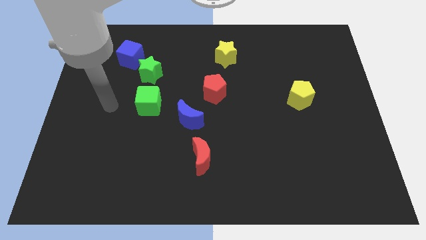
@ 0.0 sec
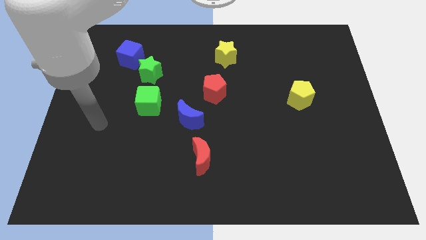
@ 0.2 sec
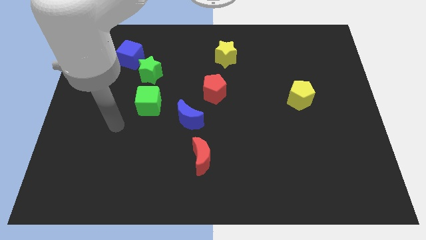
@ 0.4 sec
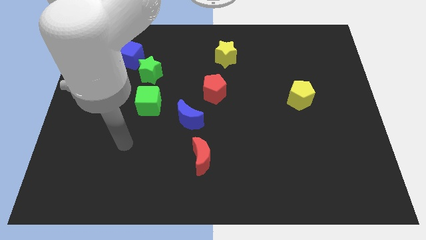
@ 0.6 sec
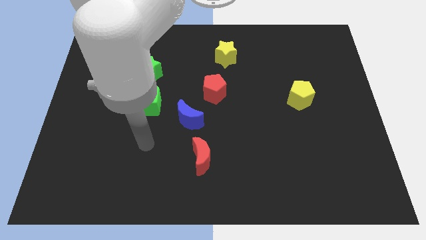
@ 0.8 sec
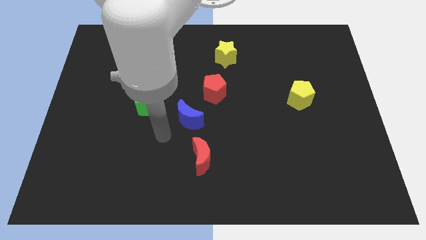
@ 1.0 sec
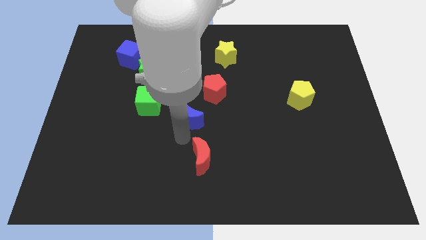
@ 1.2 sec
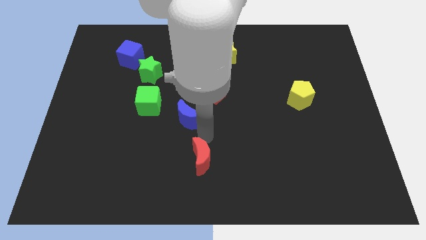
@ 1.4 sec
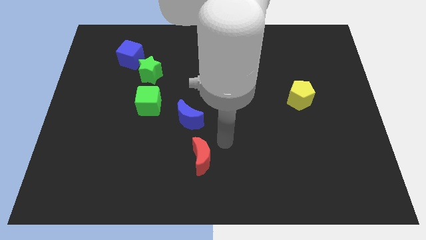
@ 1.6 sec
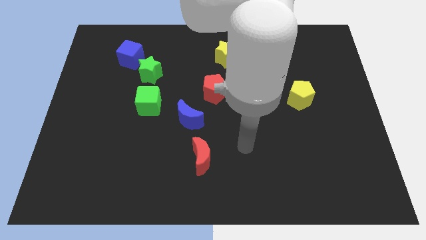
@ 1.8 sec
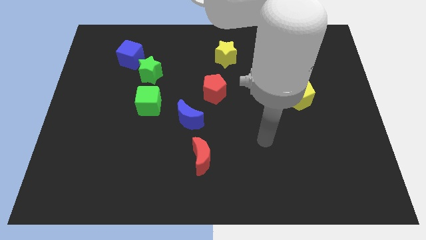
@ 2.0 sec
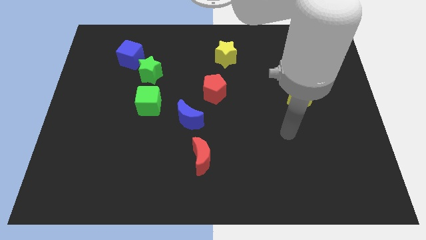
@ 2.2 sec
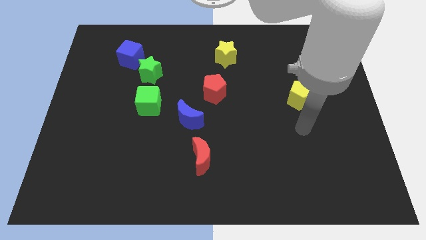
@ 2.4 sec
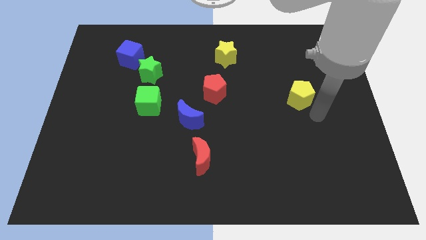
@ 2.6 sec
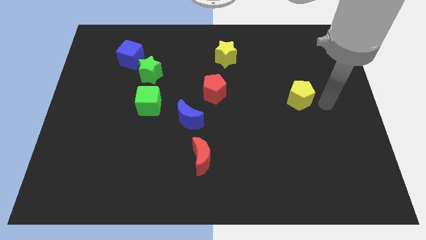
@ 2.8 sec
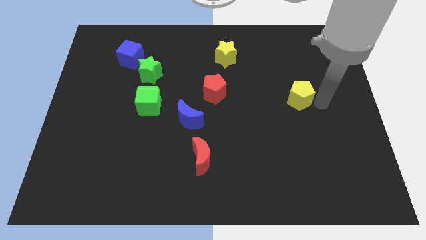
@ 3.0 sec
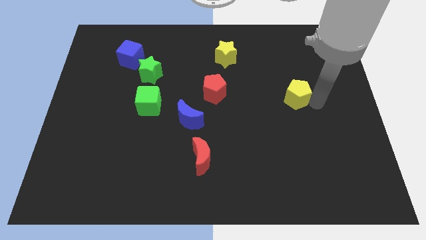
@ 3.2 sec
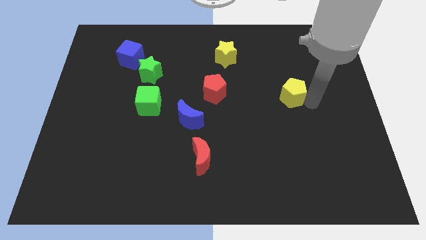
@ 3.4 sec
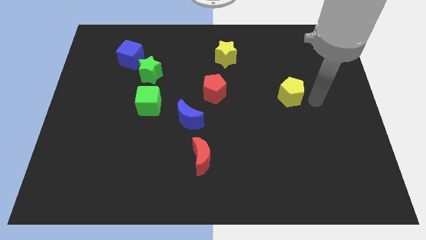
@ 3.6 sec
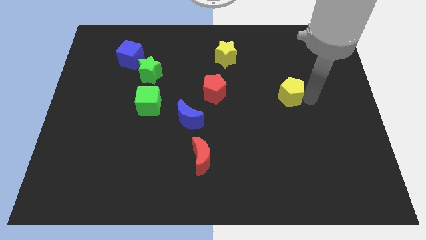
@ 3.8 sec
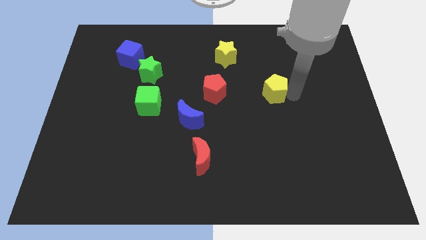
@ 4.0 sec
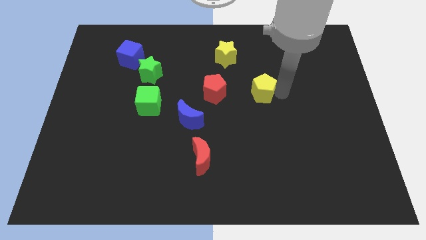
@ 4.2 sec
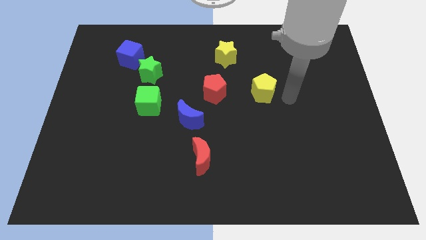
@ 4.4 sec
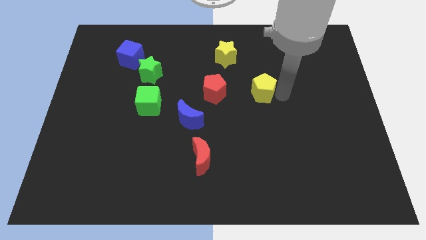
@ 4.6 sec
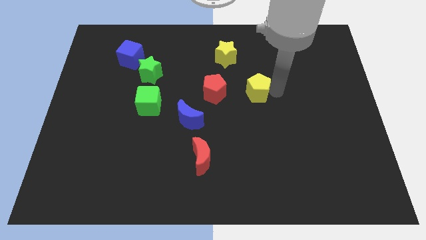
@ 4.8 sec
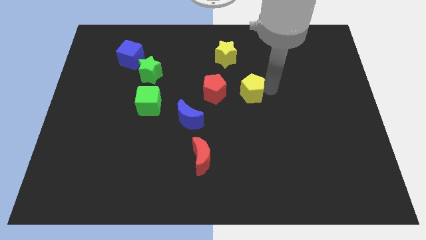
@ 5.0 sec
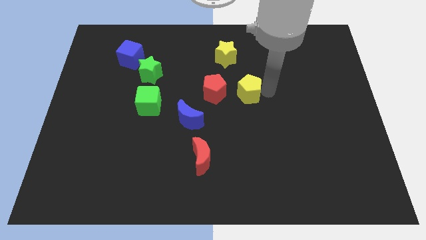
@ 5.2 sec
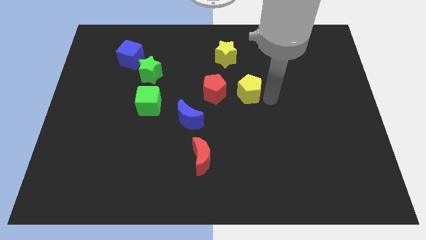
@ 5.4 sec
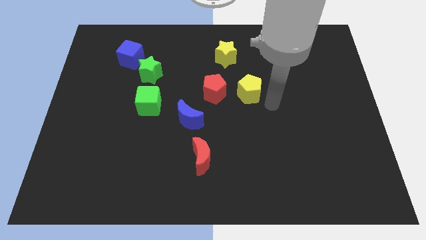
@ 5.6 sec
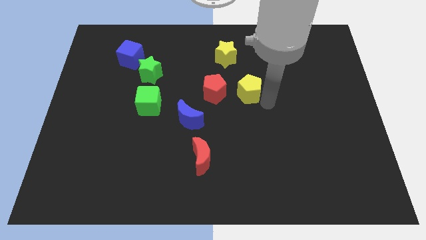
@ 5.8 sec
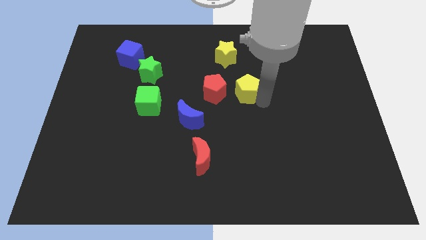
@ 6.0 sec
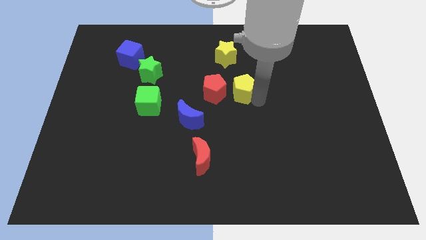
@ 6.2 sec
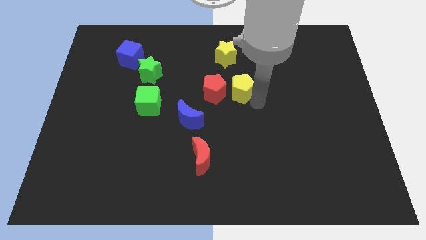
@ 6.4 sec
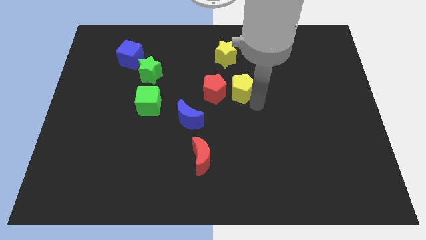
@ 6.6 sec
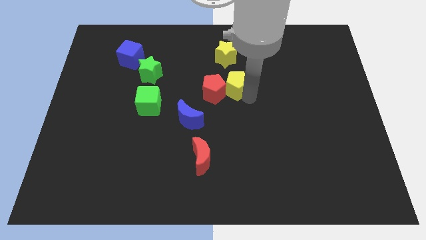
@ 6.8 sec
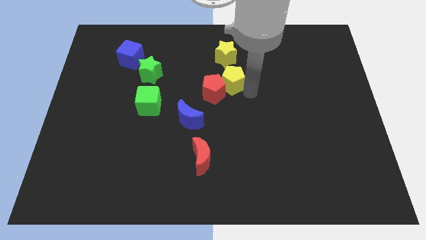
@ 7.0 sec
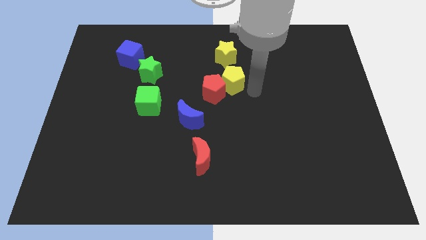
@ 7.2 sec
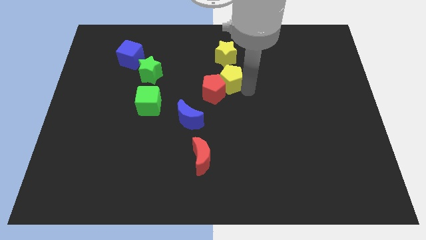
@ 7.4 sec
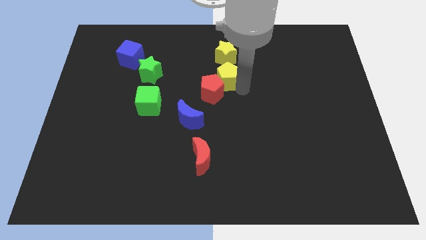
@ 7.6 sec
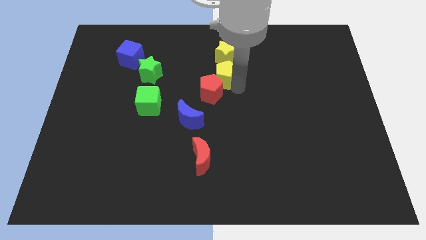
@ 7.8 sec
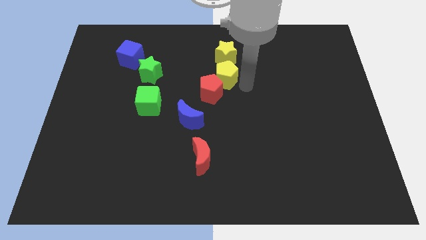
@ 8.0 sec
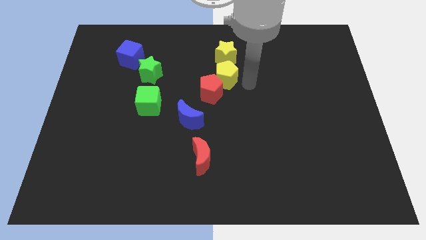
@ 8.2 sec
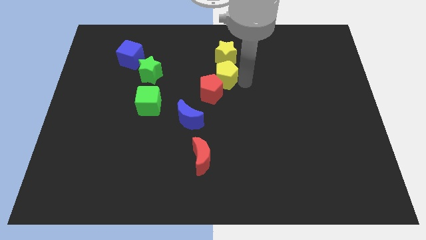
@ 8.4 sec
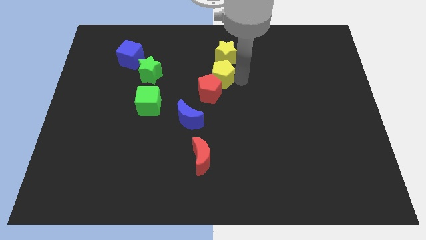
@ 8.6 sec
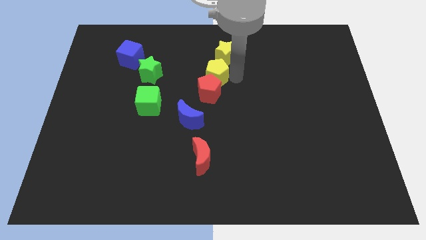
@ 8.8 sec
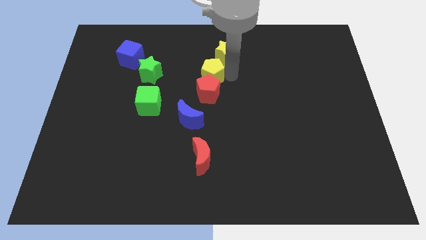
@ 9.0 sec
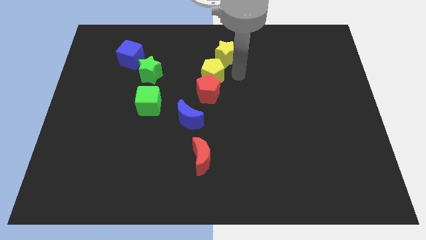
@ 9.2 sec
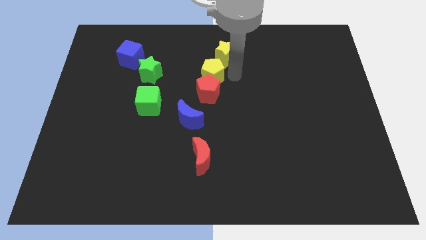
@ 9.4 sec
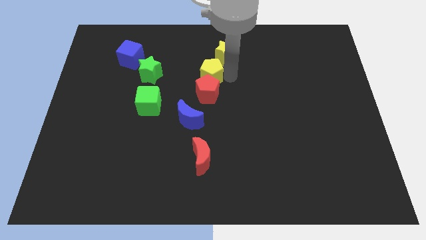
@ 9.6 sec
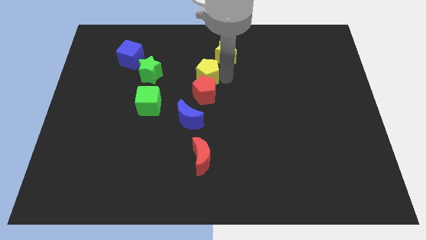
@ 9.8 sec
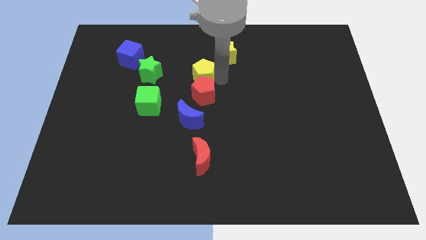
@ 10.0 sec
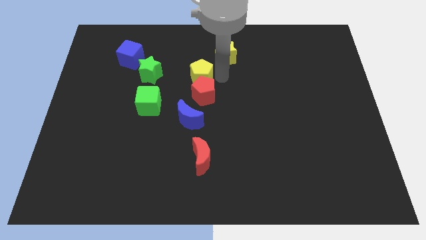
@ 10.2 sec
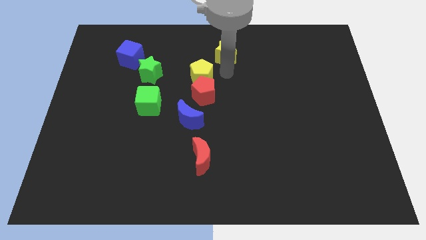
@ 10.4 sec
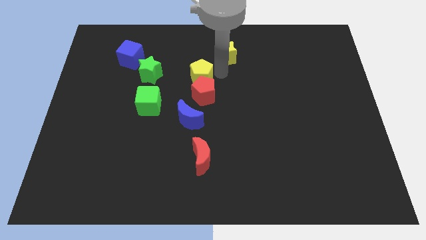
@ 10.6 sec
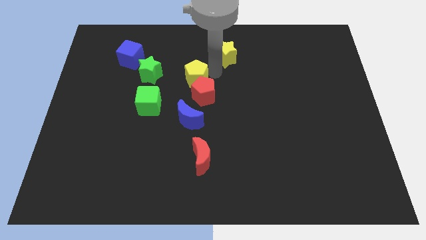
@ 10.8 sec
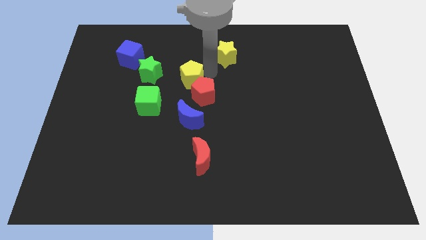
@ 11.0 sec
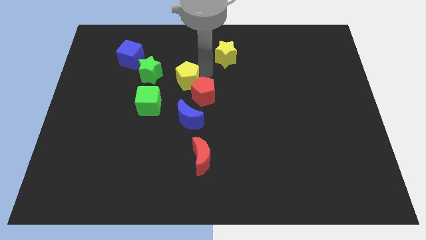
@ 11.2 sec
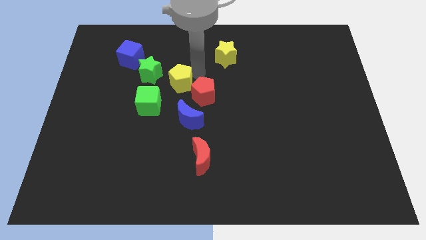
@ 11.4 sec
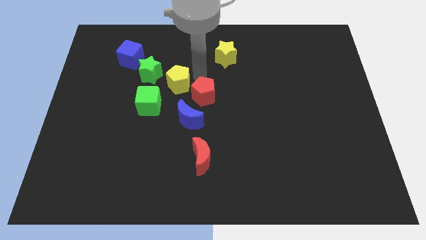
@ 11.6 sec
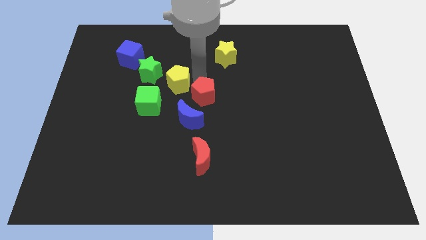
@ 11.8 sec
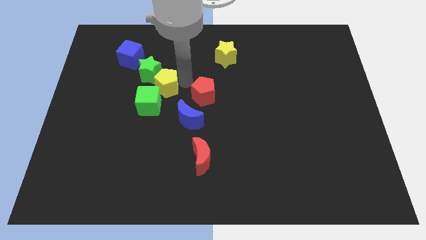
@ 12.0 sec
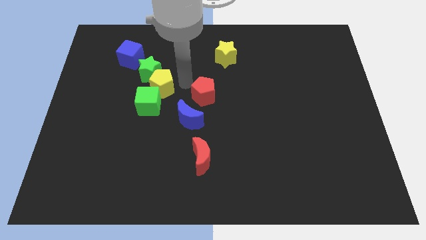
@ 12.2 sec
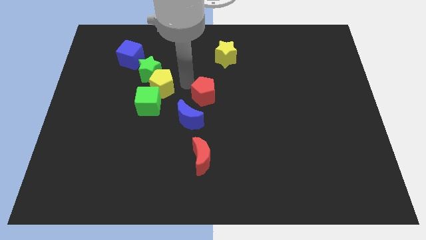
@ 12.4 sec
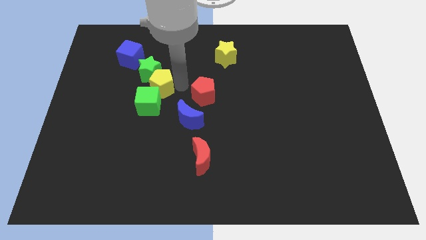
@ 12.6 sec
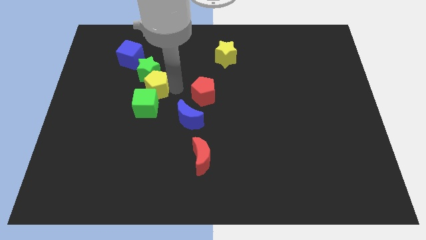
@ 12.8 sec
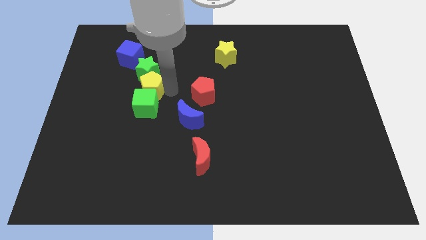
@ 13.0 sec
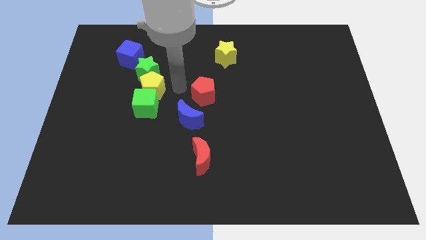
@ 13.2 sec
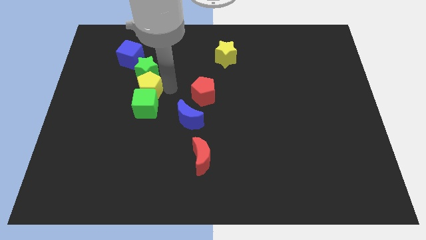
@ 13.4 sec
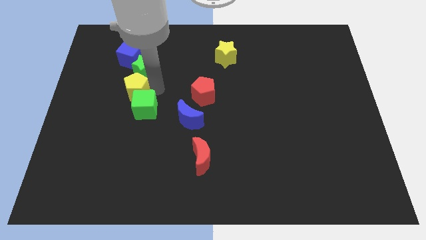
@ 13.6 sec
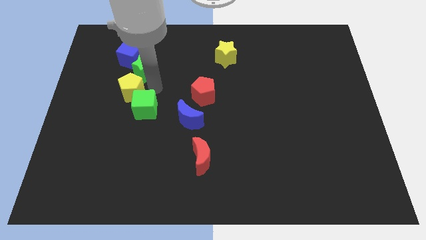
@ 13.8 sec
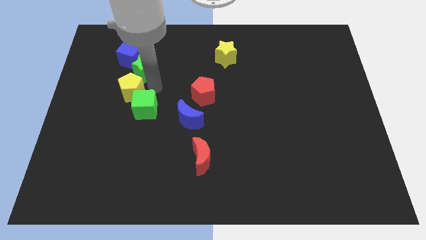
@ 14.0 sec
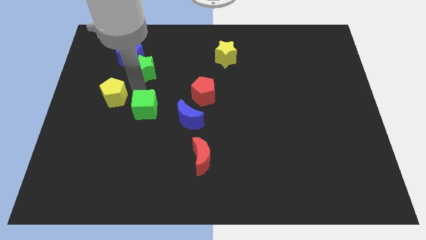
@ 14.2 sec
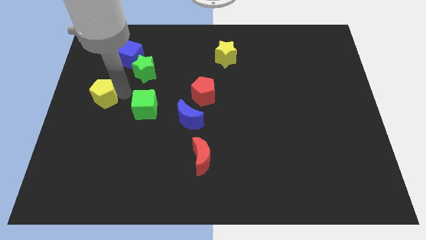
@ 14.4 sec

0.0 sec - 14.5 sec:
put the yellow pentagon to the left side of the board
